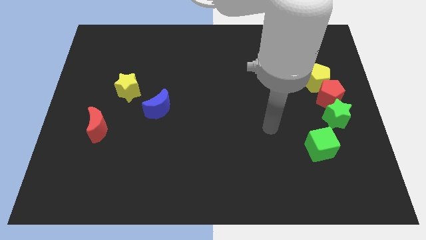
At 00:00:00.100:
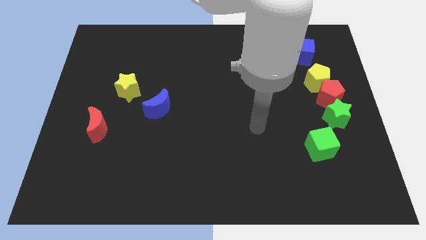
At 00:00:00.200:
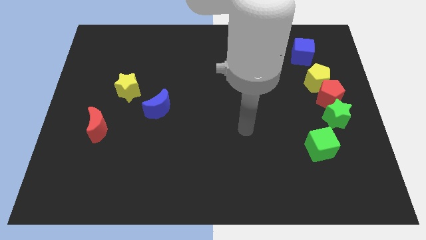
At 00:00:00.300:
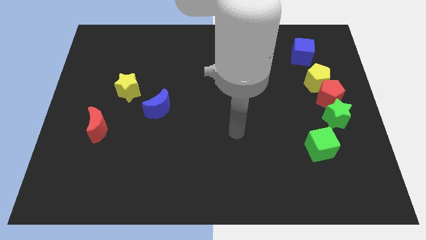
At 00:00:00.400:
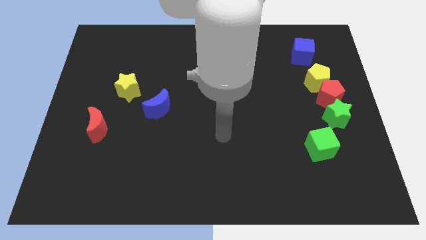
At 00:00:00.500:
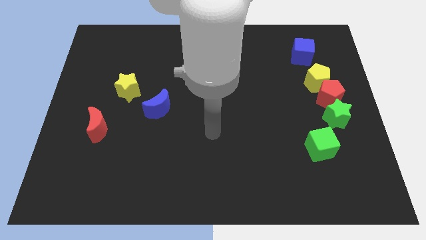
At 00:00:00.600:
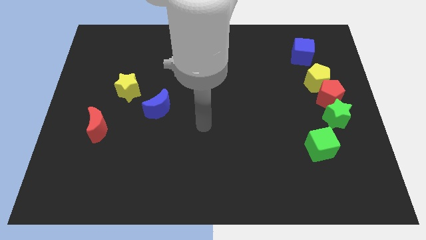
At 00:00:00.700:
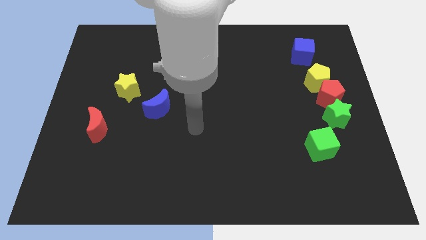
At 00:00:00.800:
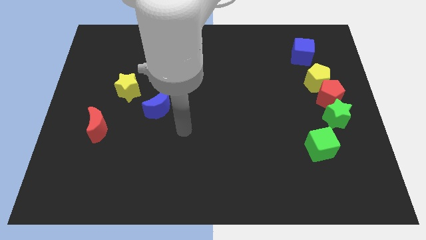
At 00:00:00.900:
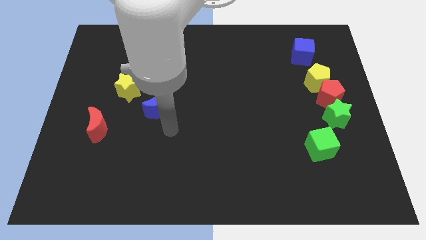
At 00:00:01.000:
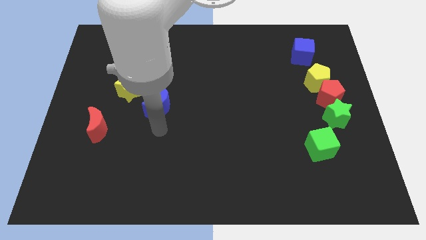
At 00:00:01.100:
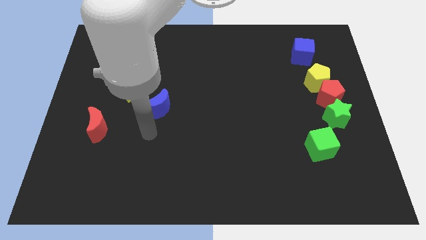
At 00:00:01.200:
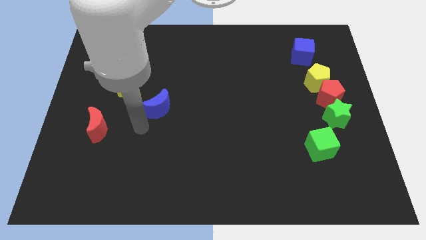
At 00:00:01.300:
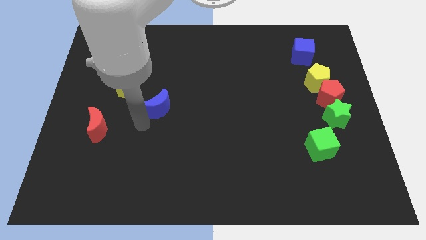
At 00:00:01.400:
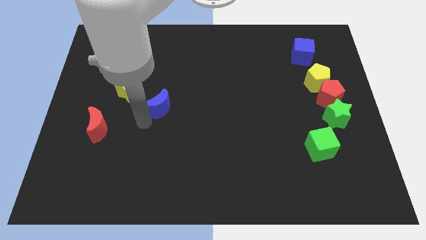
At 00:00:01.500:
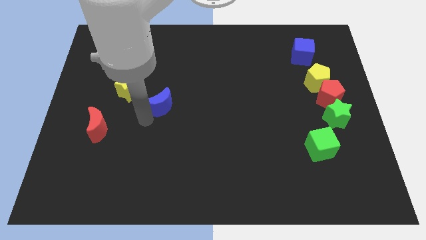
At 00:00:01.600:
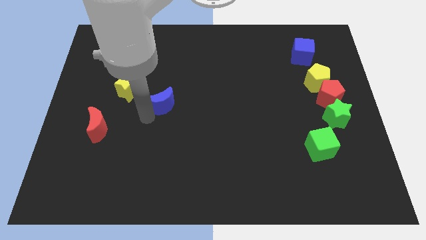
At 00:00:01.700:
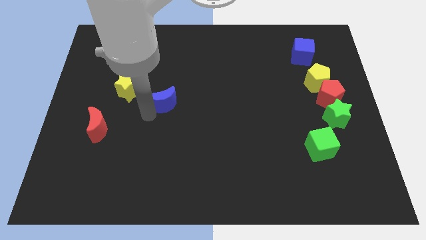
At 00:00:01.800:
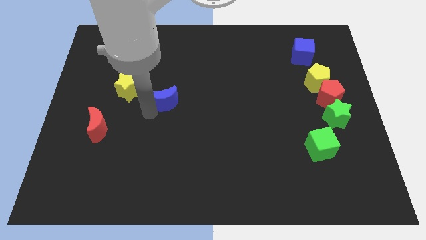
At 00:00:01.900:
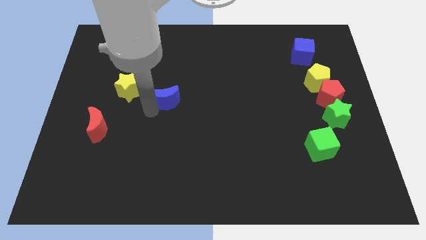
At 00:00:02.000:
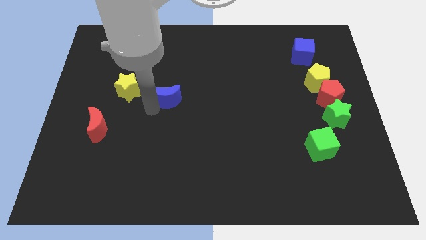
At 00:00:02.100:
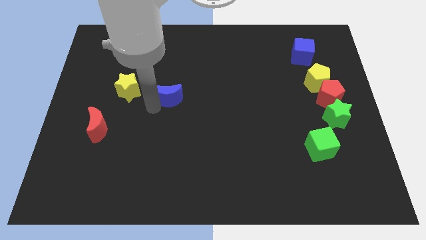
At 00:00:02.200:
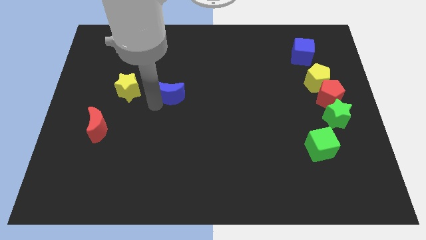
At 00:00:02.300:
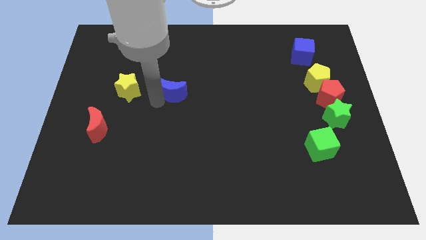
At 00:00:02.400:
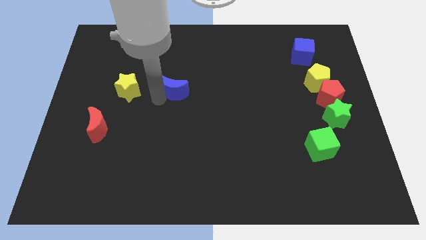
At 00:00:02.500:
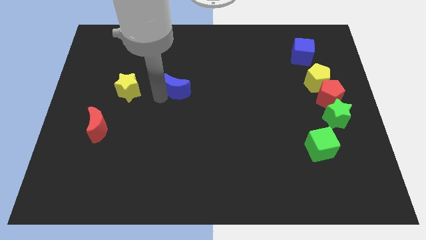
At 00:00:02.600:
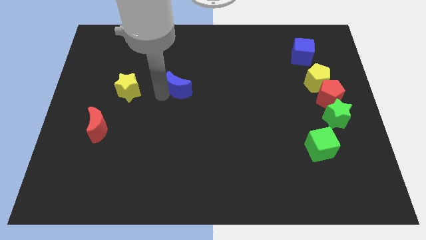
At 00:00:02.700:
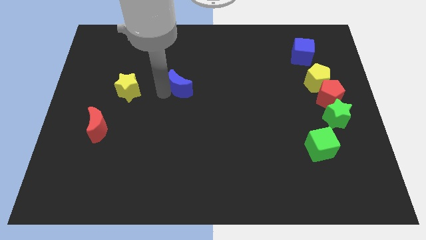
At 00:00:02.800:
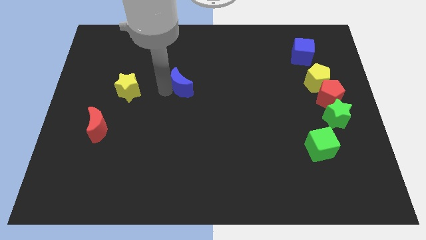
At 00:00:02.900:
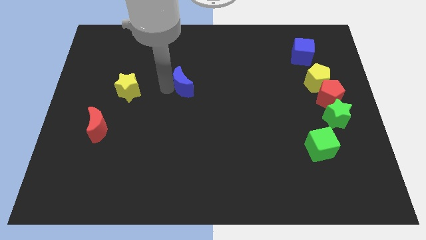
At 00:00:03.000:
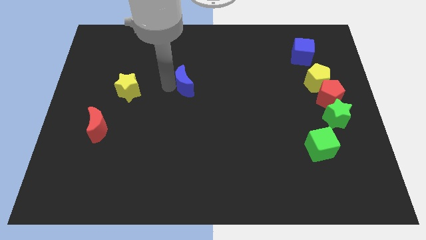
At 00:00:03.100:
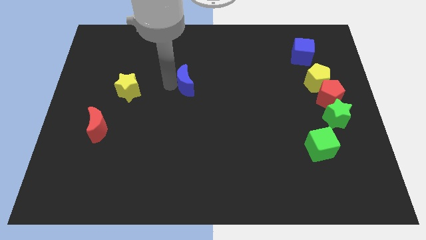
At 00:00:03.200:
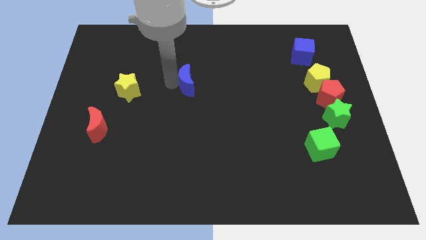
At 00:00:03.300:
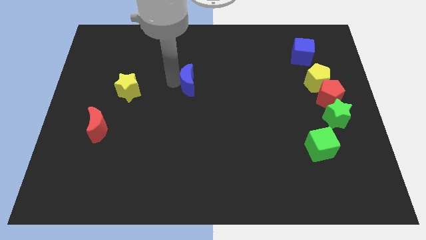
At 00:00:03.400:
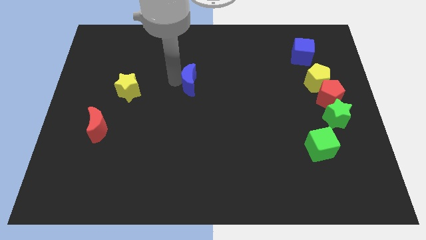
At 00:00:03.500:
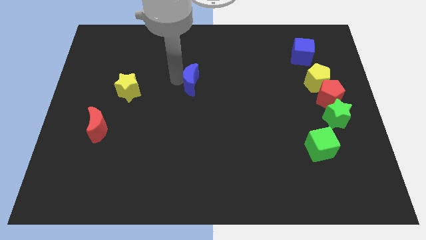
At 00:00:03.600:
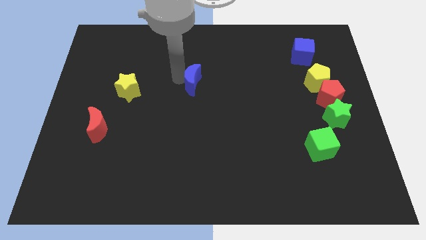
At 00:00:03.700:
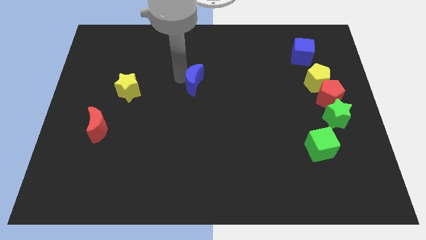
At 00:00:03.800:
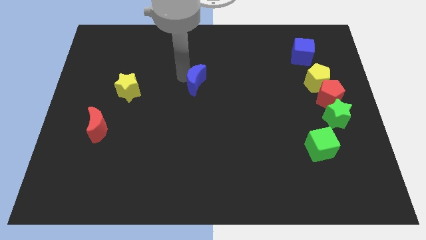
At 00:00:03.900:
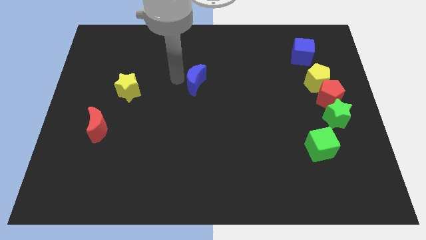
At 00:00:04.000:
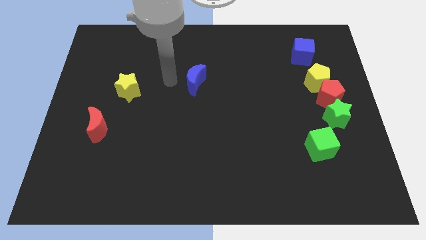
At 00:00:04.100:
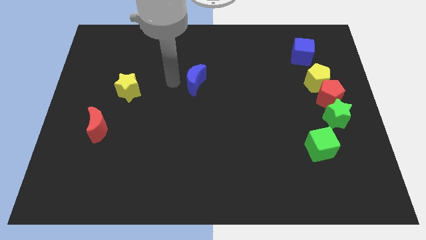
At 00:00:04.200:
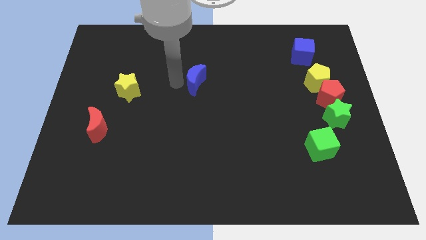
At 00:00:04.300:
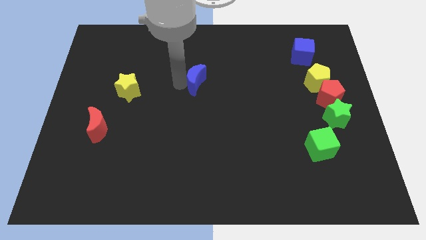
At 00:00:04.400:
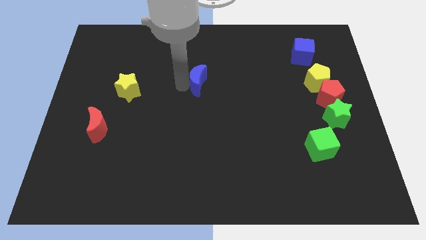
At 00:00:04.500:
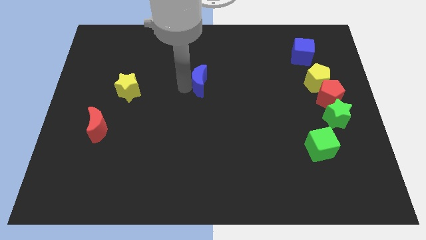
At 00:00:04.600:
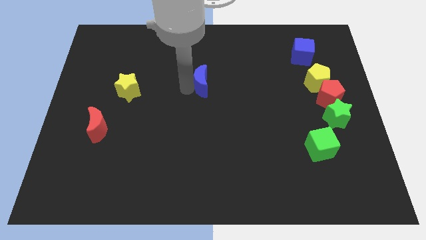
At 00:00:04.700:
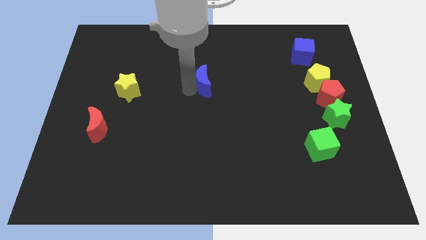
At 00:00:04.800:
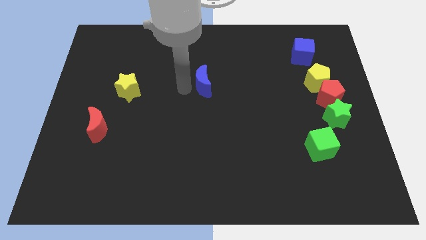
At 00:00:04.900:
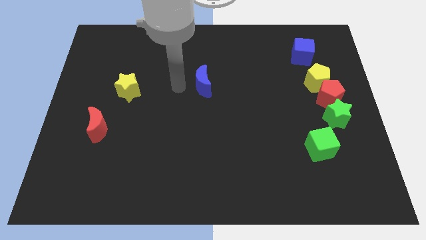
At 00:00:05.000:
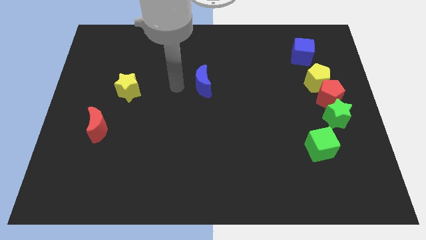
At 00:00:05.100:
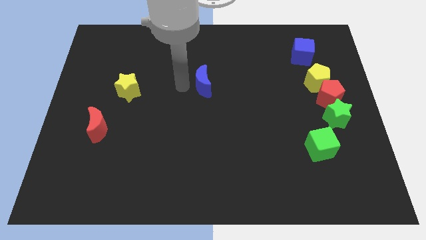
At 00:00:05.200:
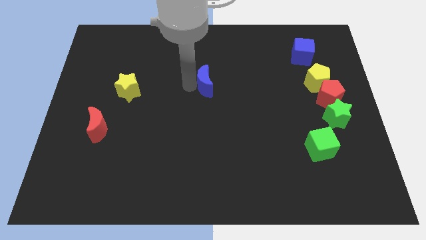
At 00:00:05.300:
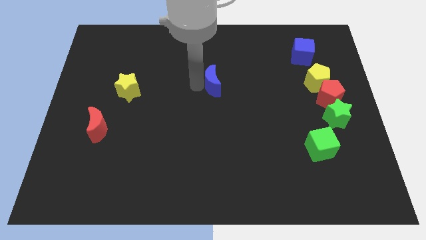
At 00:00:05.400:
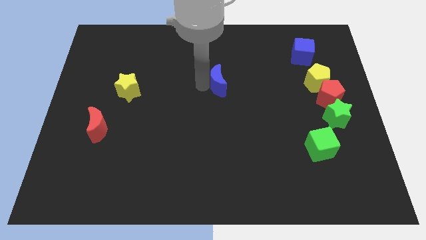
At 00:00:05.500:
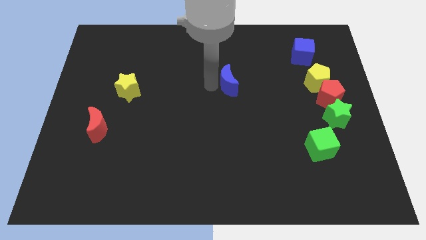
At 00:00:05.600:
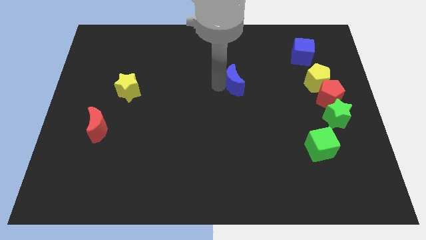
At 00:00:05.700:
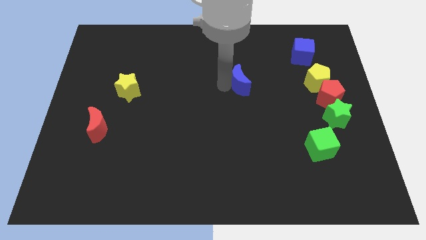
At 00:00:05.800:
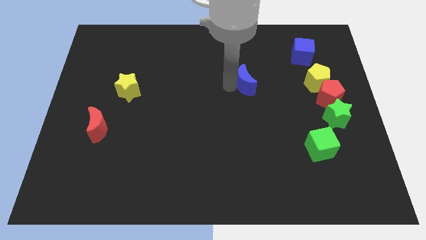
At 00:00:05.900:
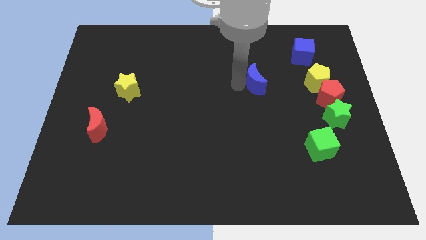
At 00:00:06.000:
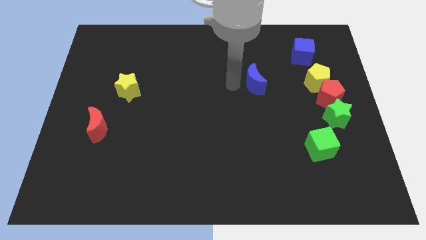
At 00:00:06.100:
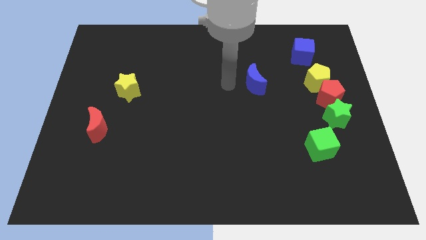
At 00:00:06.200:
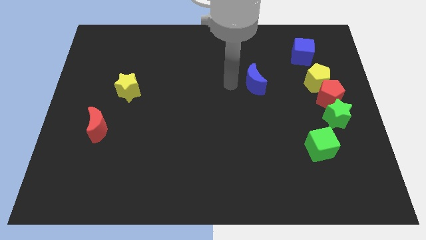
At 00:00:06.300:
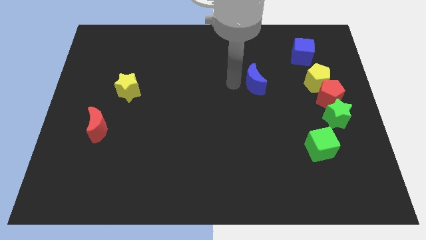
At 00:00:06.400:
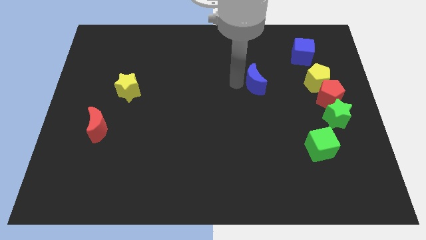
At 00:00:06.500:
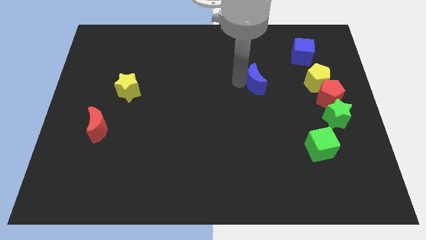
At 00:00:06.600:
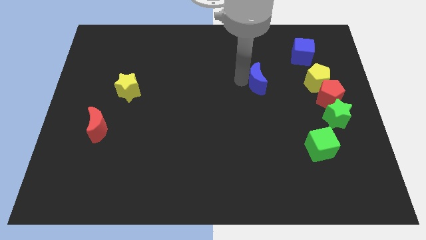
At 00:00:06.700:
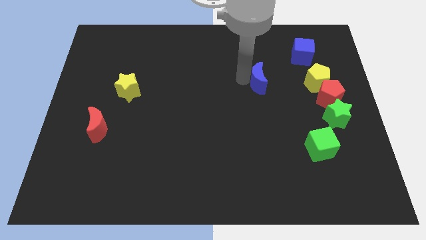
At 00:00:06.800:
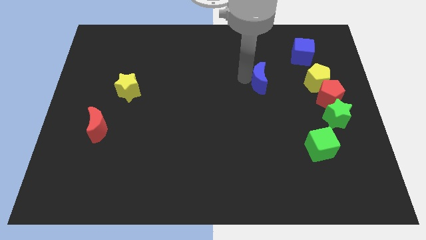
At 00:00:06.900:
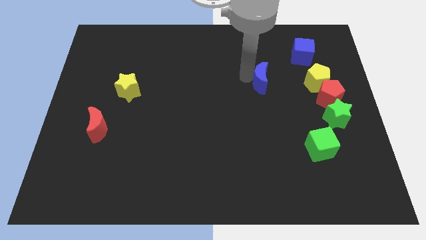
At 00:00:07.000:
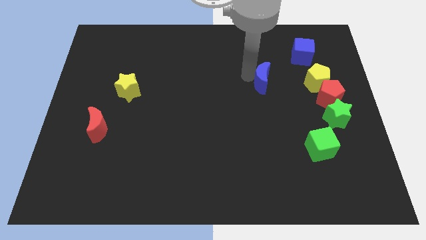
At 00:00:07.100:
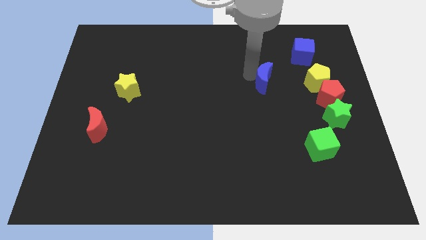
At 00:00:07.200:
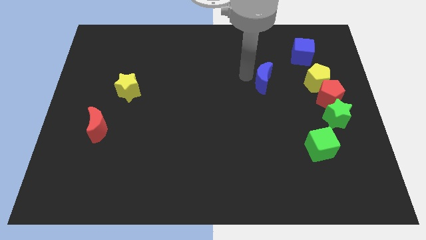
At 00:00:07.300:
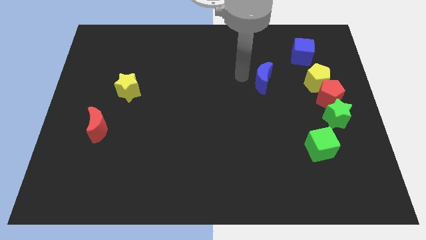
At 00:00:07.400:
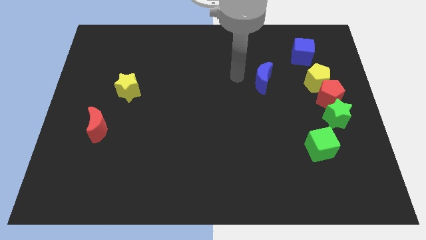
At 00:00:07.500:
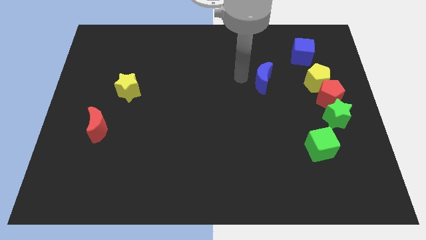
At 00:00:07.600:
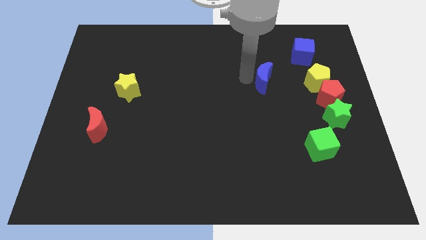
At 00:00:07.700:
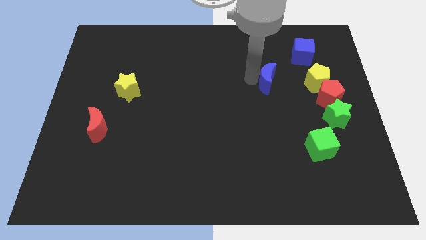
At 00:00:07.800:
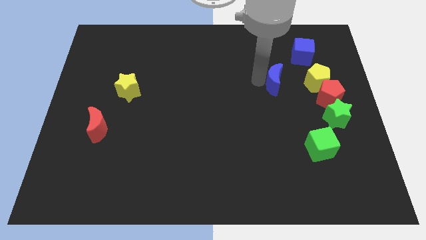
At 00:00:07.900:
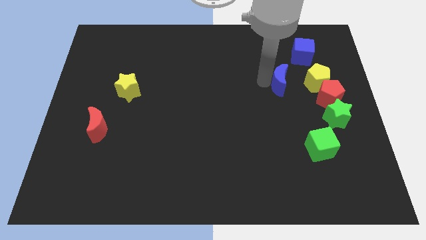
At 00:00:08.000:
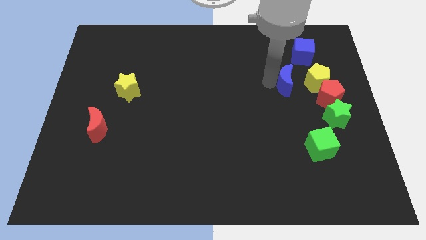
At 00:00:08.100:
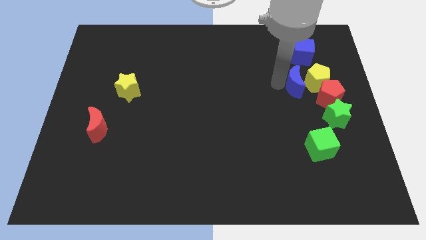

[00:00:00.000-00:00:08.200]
slide the blue moon next to the yellow pentagon
